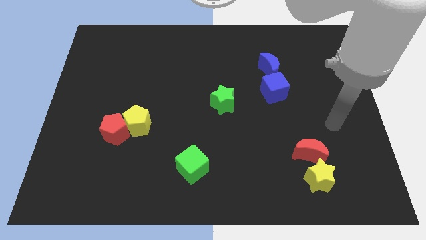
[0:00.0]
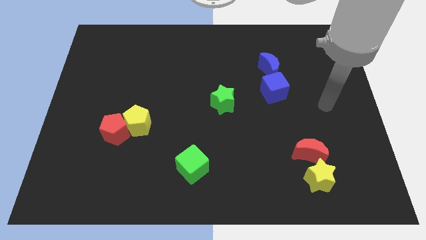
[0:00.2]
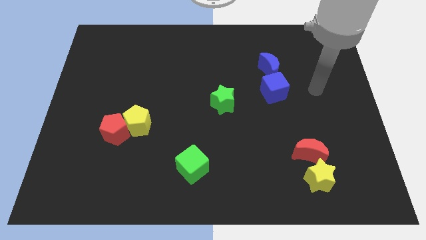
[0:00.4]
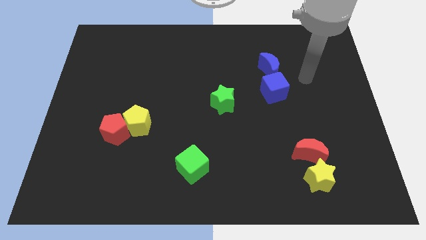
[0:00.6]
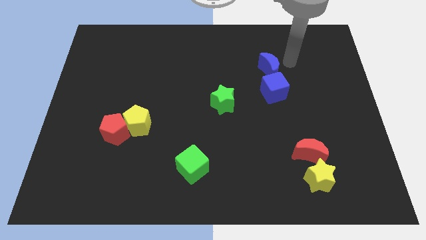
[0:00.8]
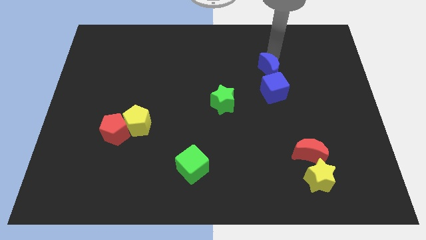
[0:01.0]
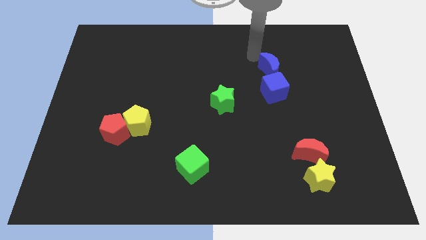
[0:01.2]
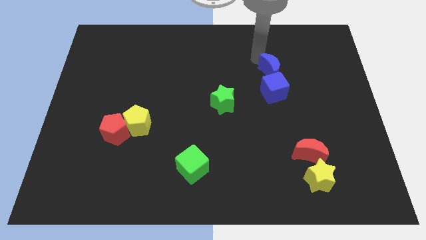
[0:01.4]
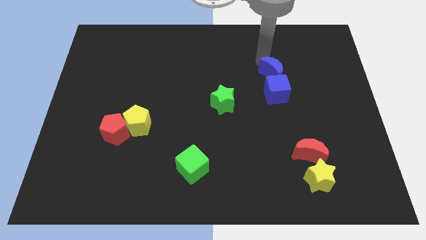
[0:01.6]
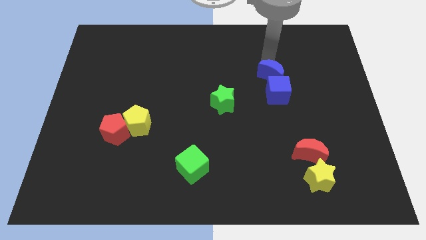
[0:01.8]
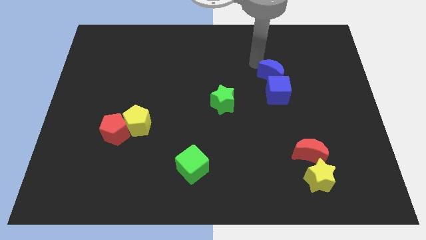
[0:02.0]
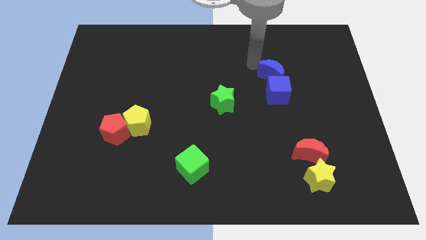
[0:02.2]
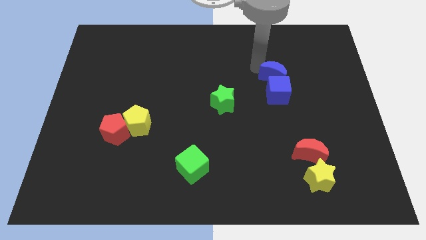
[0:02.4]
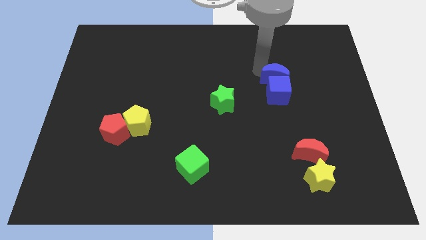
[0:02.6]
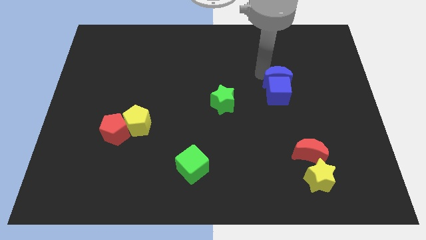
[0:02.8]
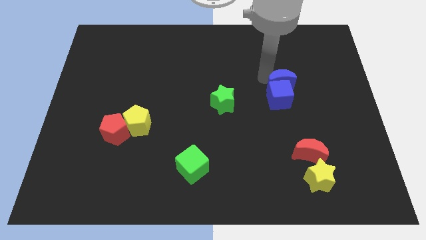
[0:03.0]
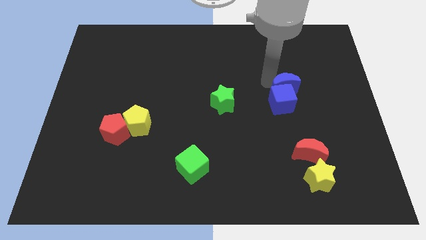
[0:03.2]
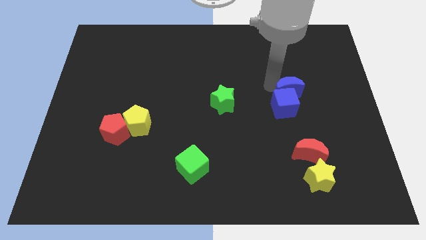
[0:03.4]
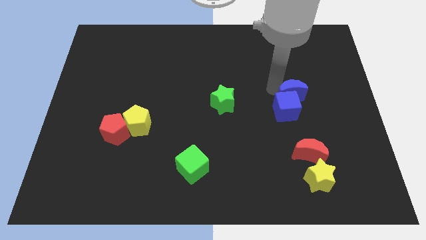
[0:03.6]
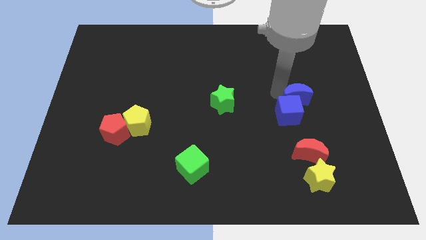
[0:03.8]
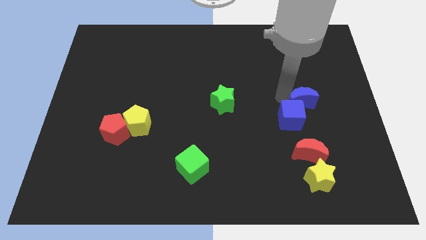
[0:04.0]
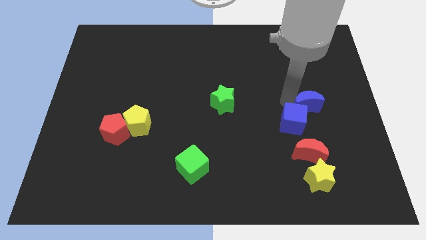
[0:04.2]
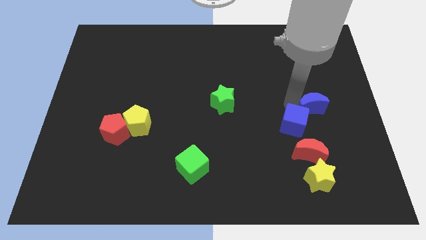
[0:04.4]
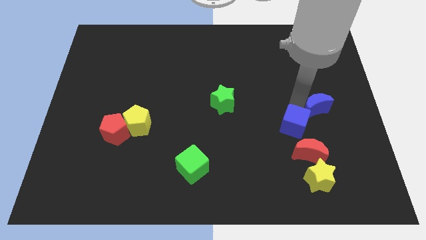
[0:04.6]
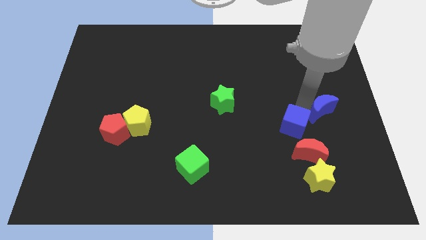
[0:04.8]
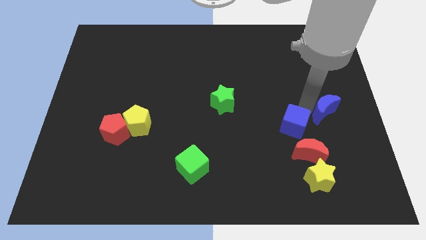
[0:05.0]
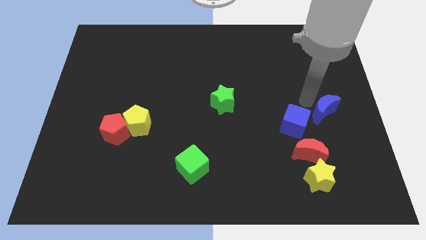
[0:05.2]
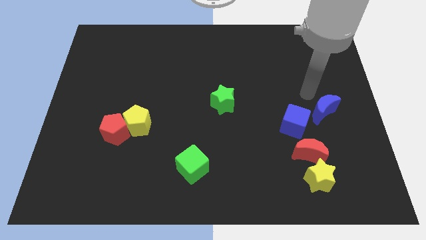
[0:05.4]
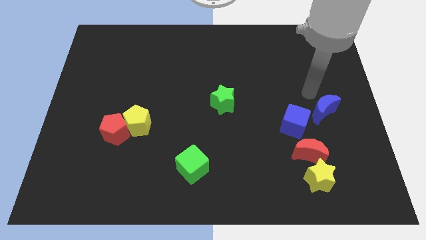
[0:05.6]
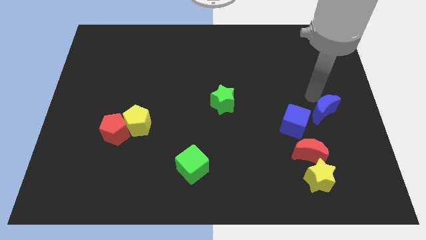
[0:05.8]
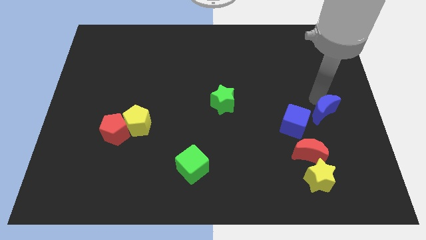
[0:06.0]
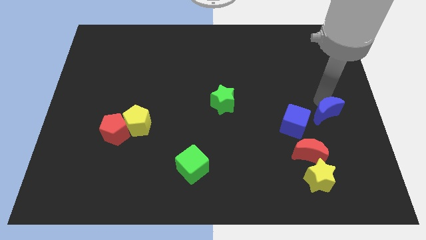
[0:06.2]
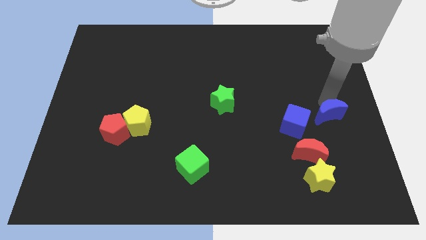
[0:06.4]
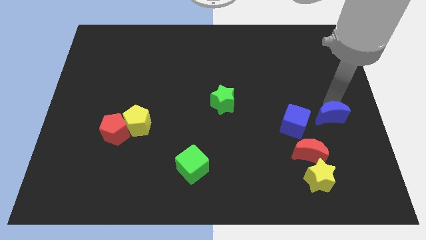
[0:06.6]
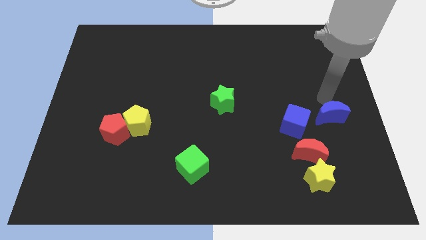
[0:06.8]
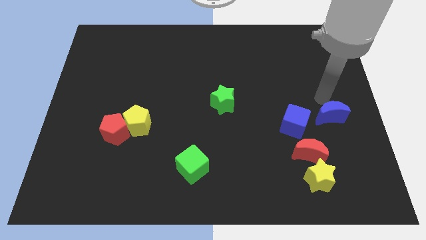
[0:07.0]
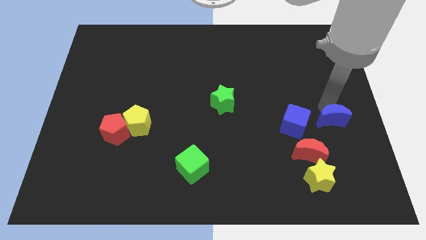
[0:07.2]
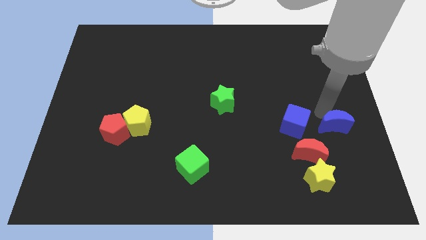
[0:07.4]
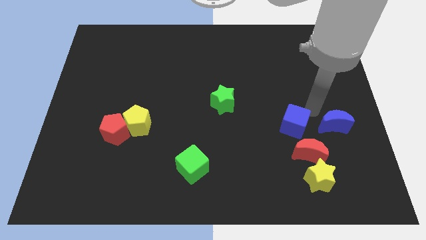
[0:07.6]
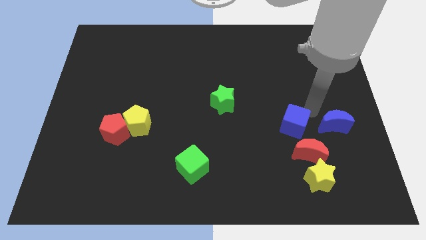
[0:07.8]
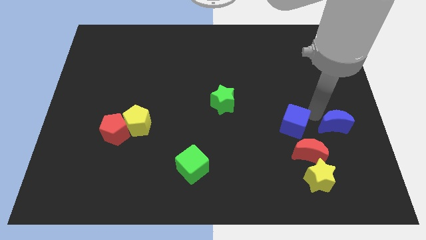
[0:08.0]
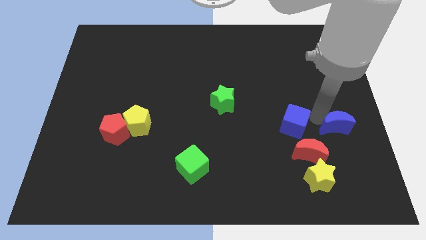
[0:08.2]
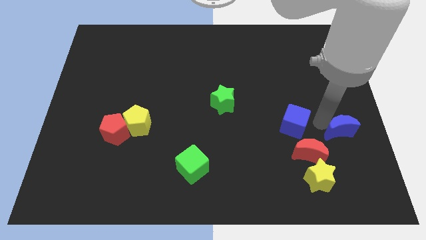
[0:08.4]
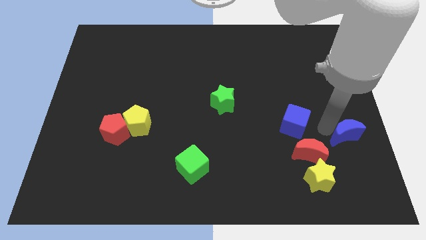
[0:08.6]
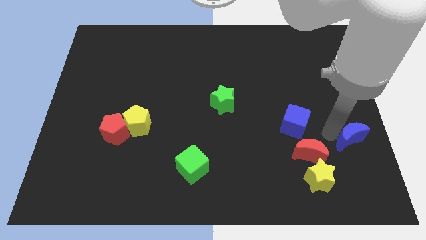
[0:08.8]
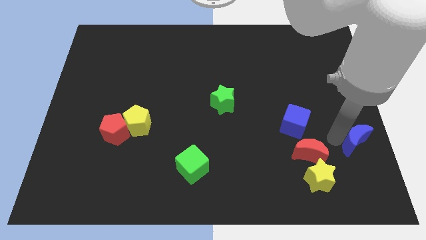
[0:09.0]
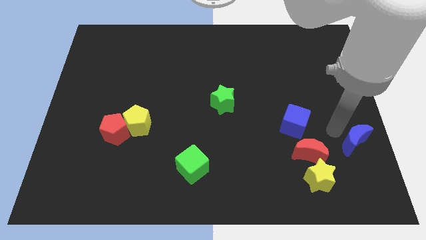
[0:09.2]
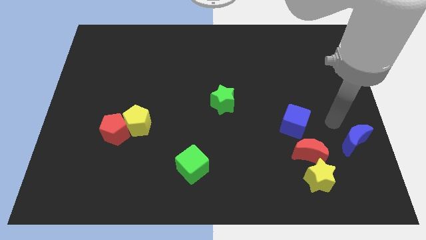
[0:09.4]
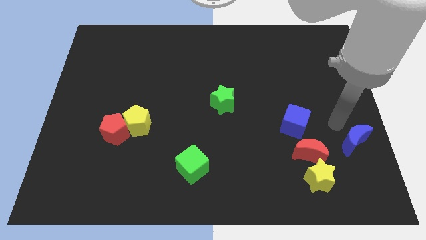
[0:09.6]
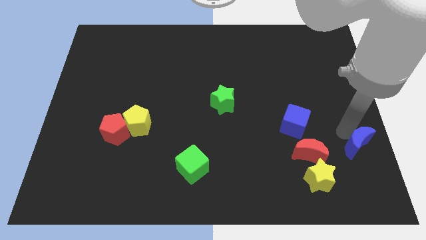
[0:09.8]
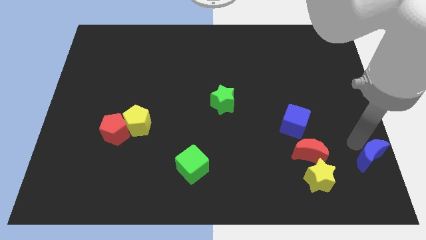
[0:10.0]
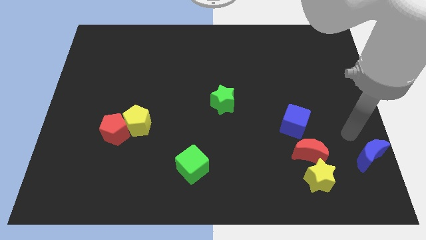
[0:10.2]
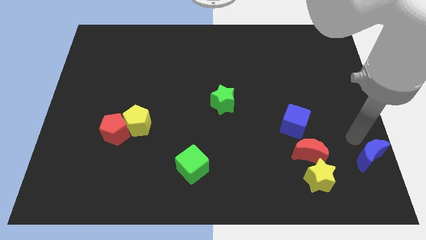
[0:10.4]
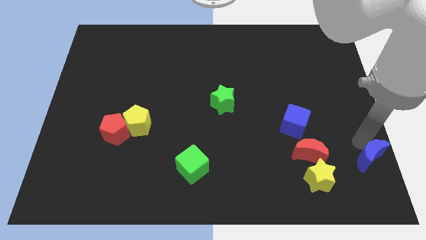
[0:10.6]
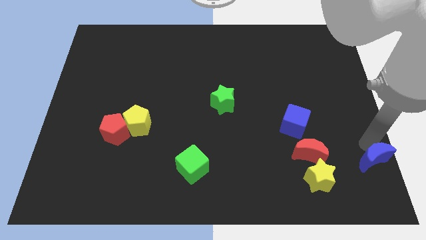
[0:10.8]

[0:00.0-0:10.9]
push the blue moon to the bottom right of the board

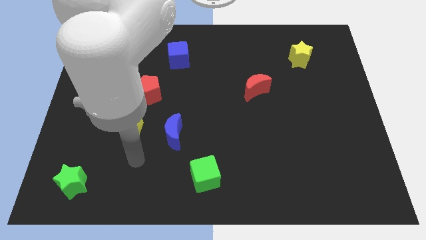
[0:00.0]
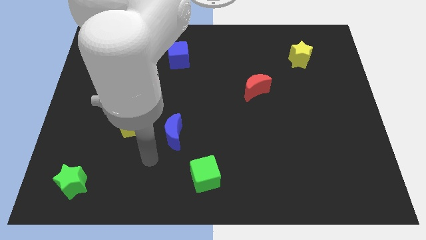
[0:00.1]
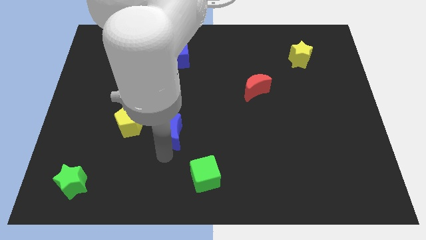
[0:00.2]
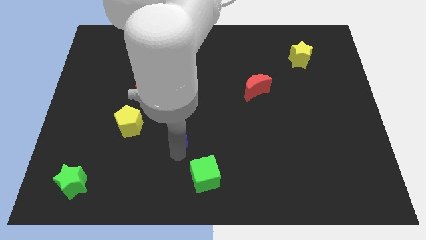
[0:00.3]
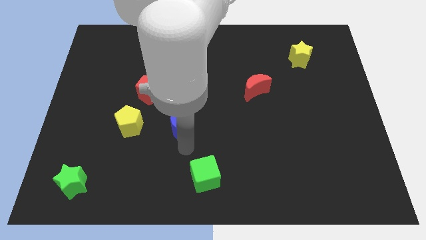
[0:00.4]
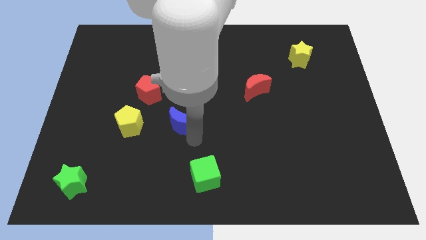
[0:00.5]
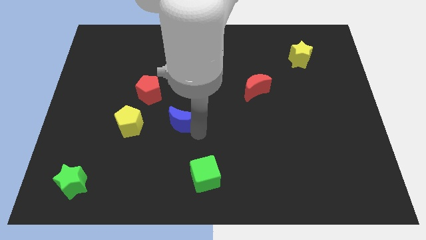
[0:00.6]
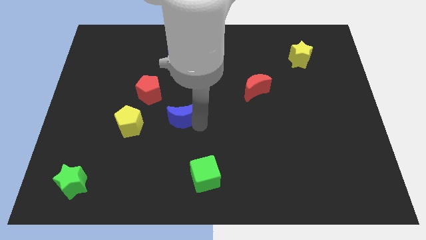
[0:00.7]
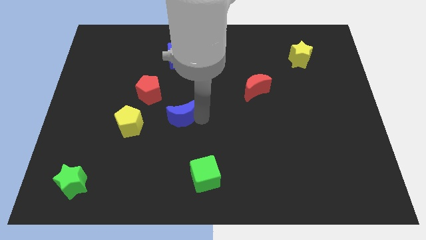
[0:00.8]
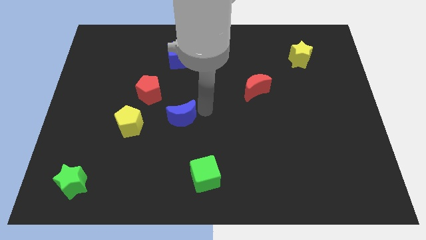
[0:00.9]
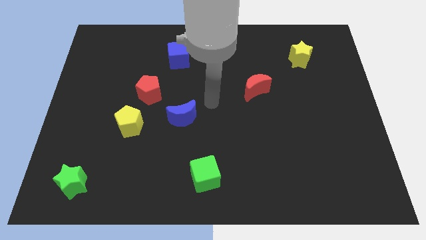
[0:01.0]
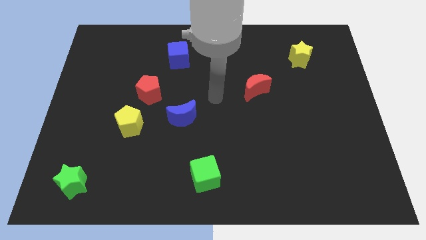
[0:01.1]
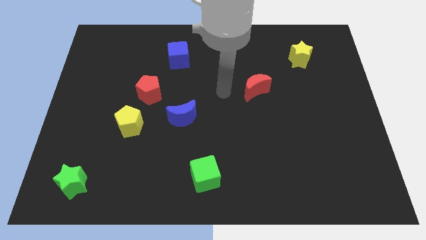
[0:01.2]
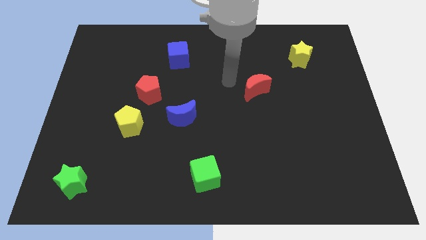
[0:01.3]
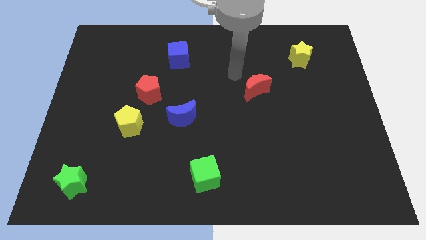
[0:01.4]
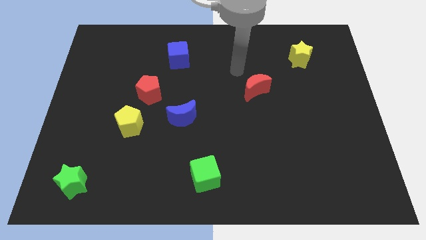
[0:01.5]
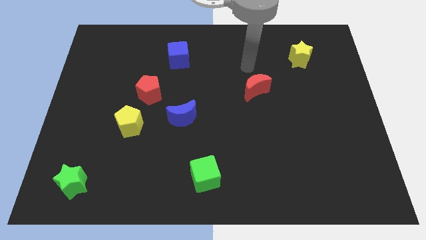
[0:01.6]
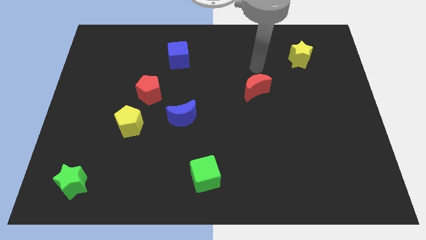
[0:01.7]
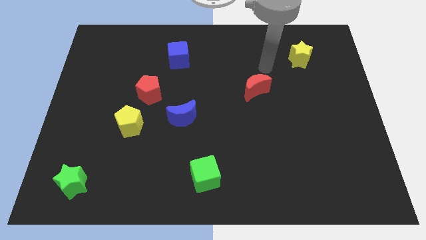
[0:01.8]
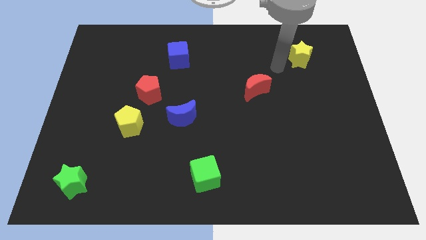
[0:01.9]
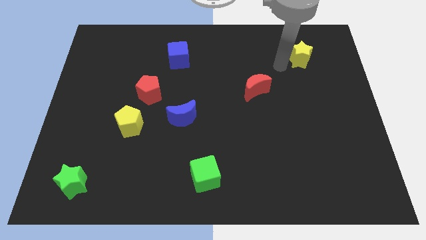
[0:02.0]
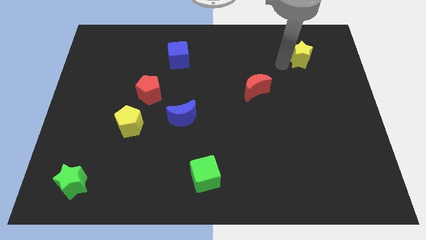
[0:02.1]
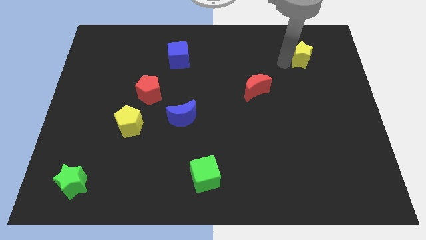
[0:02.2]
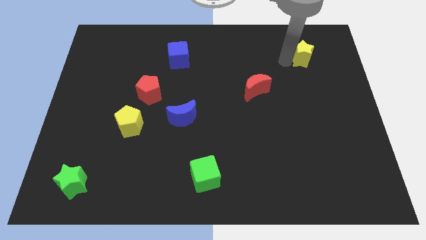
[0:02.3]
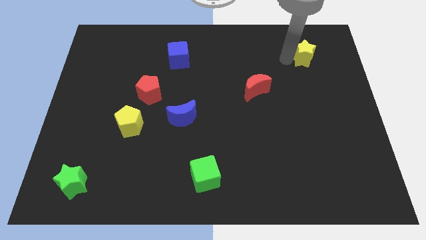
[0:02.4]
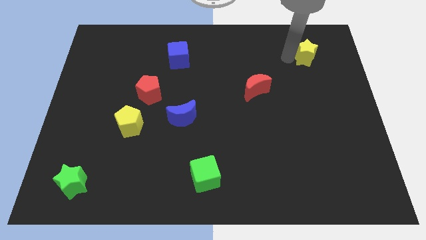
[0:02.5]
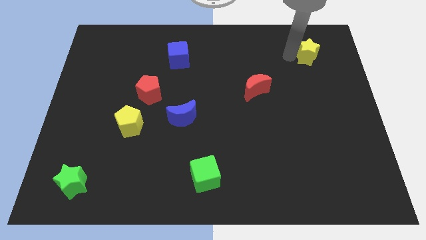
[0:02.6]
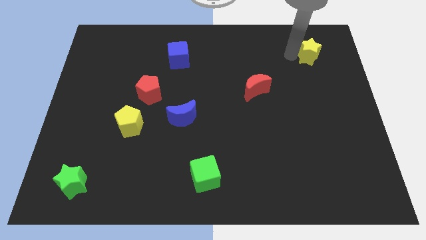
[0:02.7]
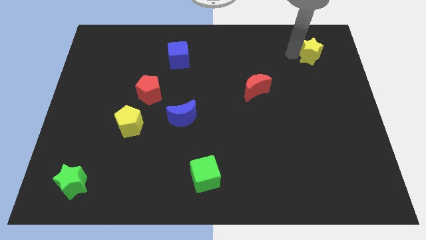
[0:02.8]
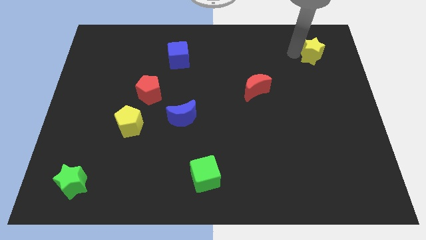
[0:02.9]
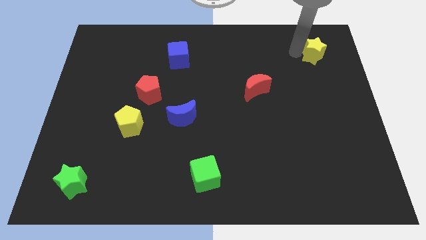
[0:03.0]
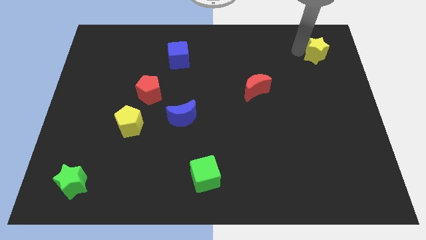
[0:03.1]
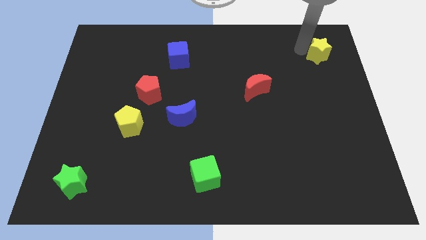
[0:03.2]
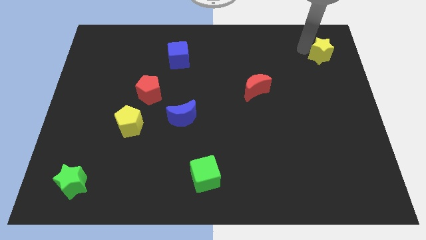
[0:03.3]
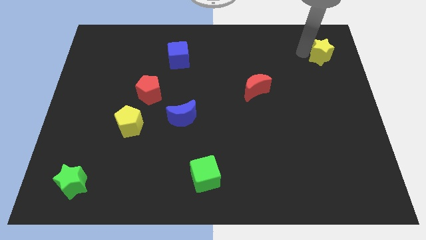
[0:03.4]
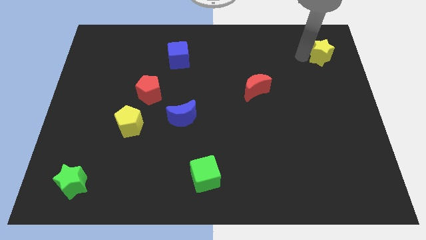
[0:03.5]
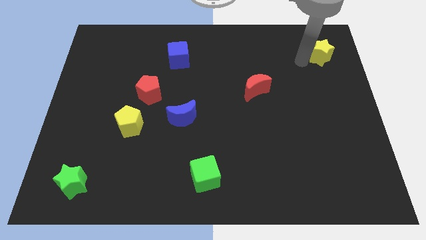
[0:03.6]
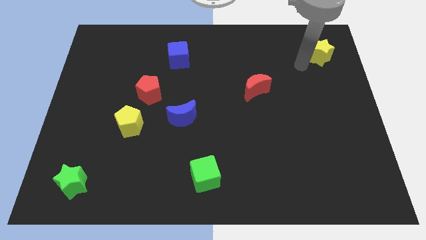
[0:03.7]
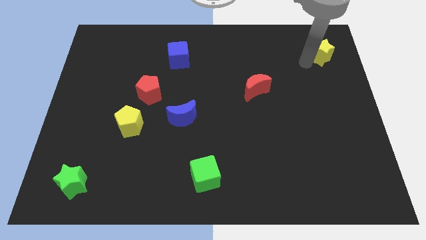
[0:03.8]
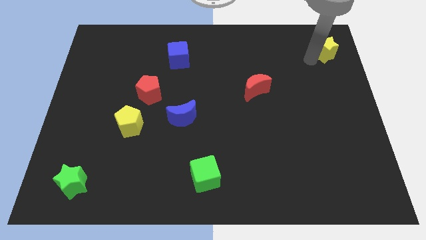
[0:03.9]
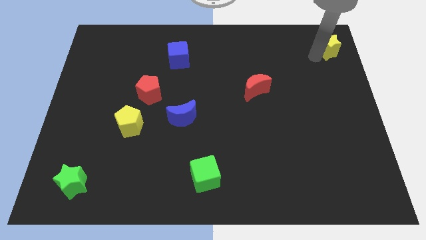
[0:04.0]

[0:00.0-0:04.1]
push the yellow star to the upper right corner
